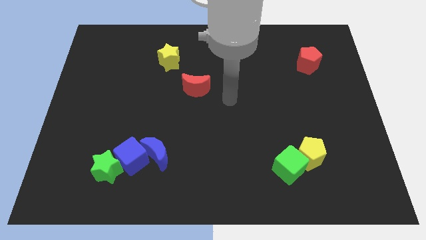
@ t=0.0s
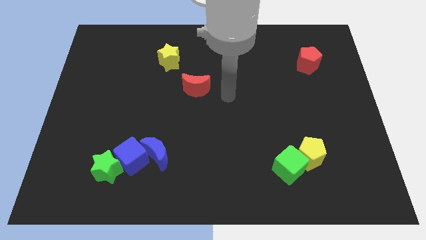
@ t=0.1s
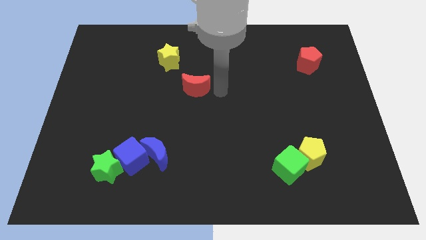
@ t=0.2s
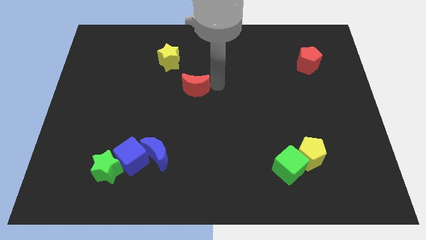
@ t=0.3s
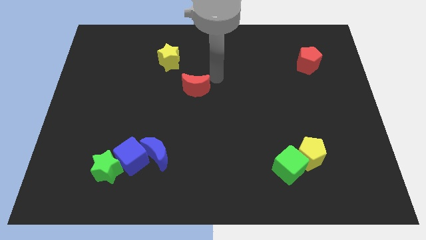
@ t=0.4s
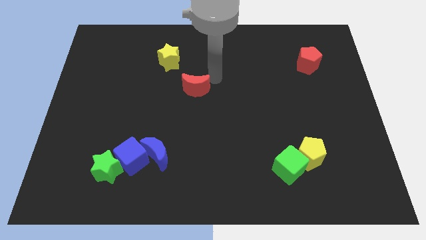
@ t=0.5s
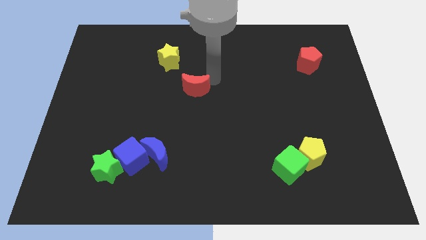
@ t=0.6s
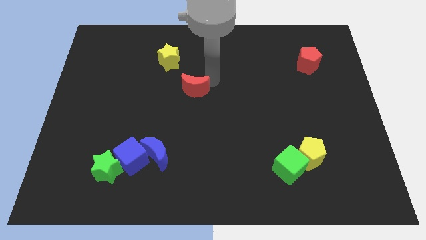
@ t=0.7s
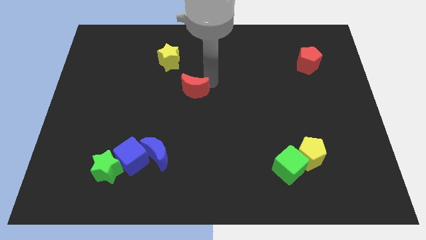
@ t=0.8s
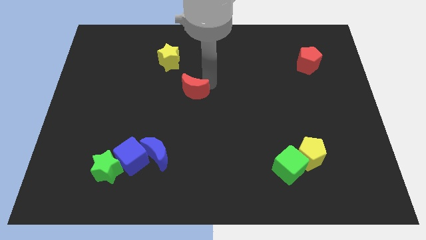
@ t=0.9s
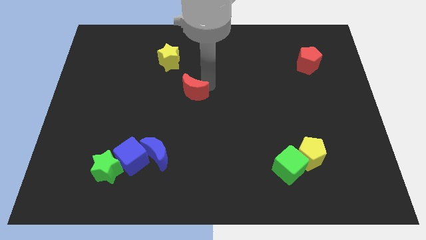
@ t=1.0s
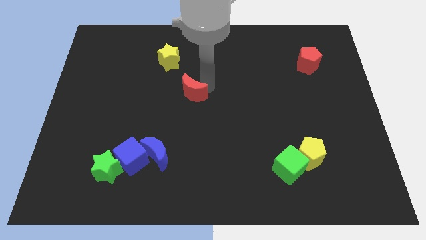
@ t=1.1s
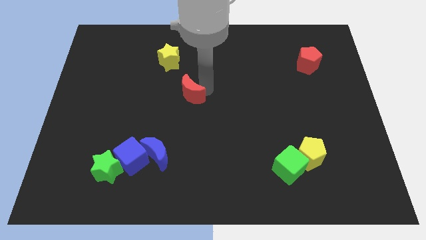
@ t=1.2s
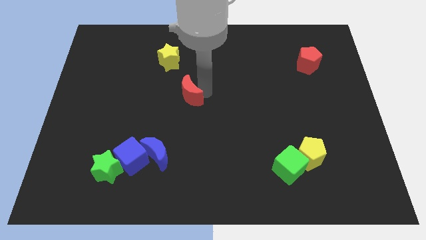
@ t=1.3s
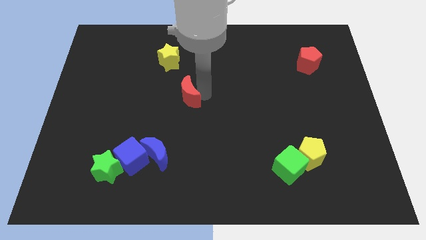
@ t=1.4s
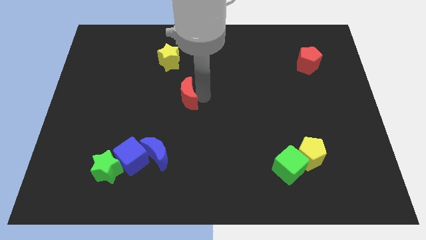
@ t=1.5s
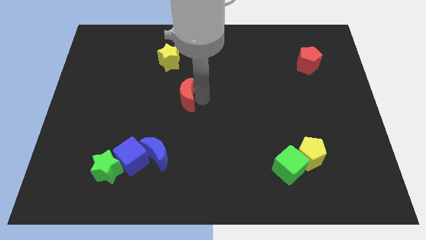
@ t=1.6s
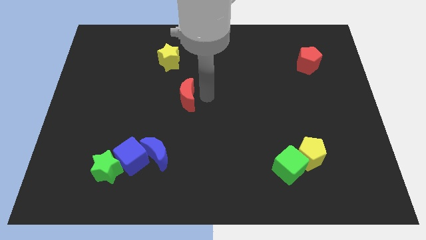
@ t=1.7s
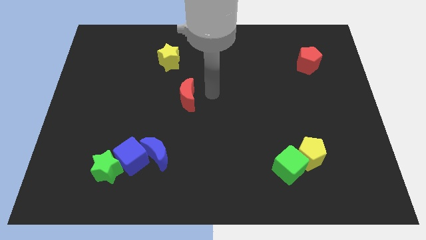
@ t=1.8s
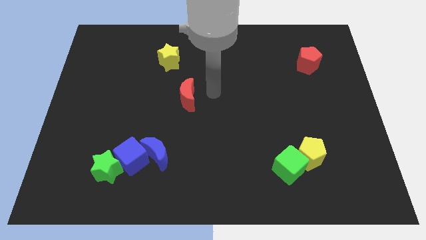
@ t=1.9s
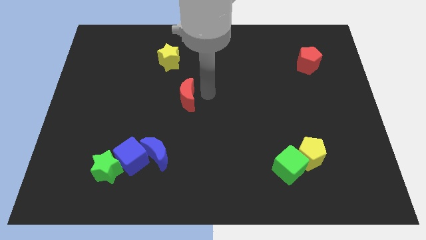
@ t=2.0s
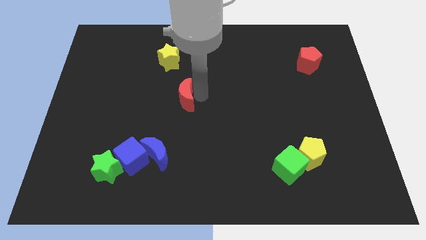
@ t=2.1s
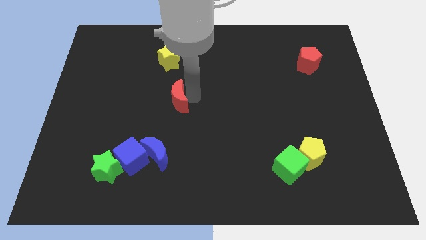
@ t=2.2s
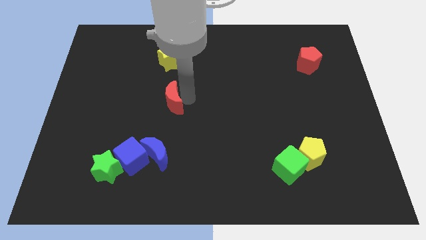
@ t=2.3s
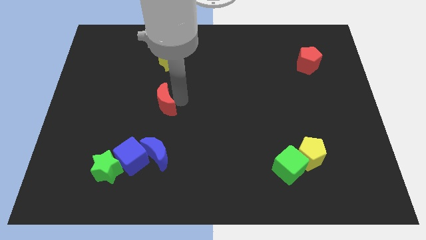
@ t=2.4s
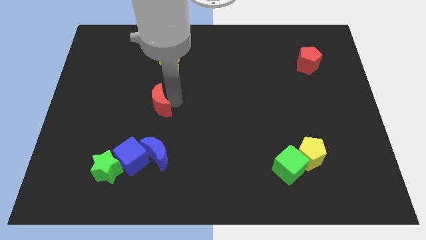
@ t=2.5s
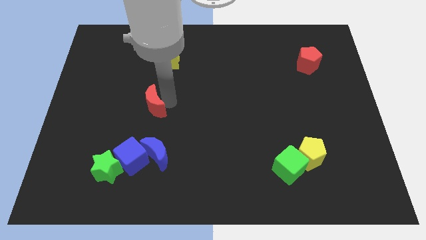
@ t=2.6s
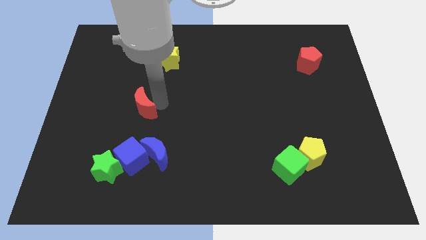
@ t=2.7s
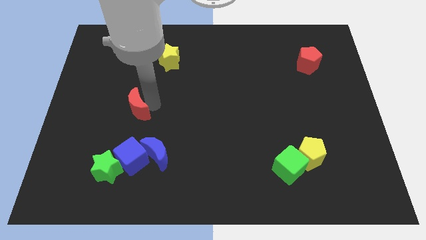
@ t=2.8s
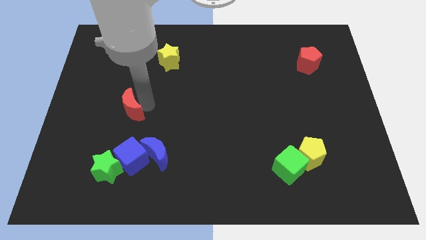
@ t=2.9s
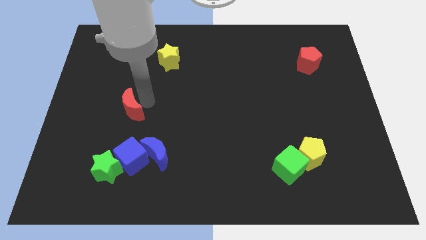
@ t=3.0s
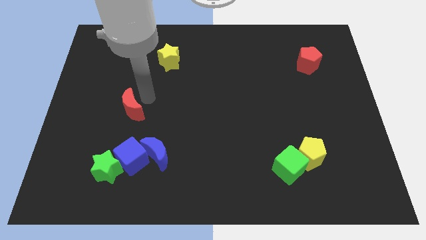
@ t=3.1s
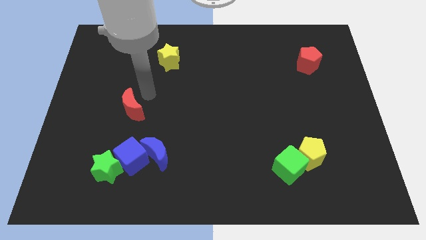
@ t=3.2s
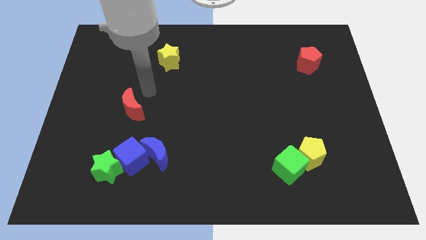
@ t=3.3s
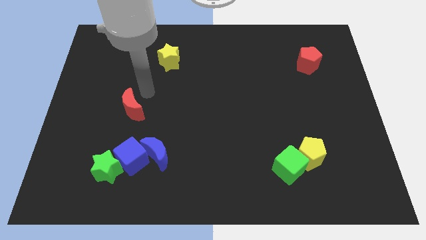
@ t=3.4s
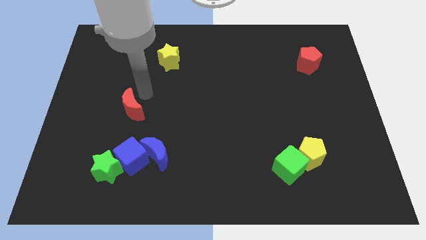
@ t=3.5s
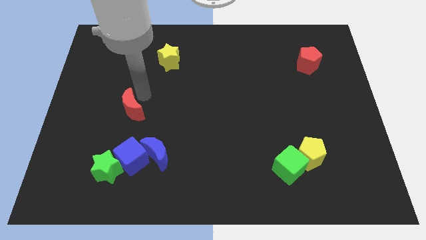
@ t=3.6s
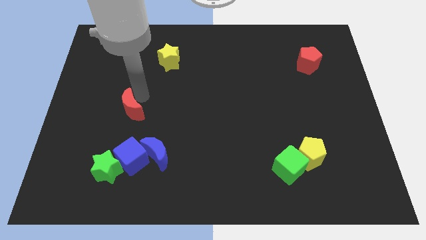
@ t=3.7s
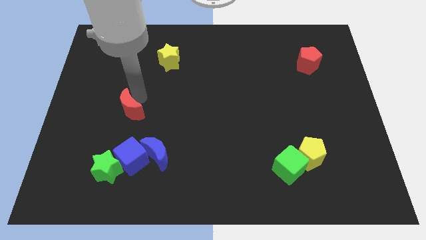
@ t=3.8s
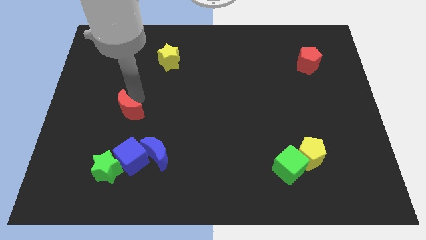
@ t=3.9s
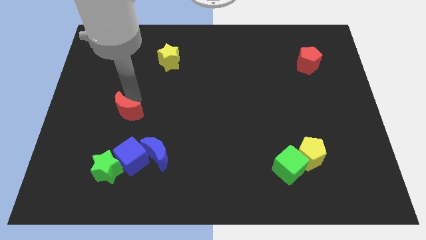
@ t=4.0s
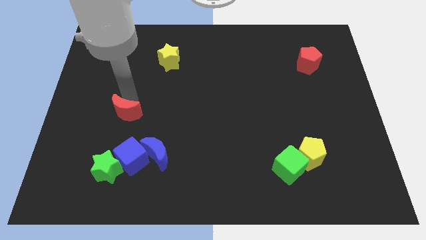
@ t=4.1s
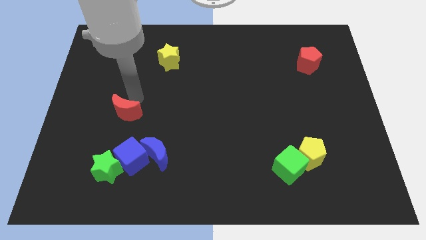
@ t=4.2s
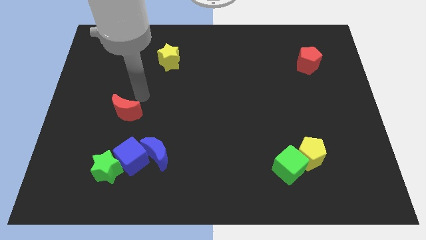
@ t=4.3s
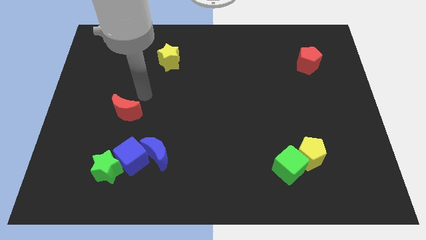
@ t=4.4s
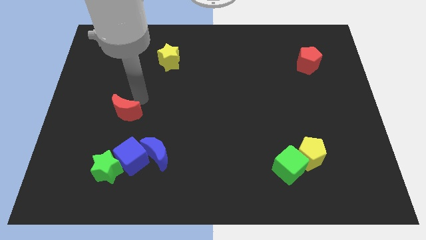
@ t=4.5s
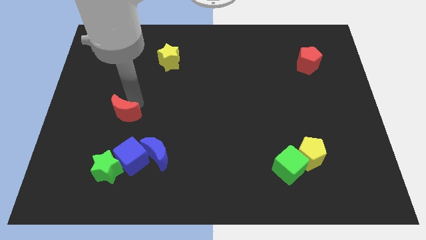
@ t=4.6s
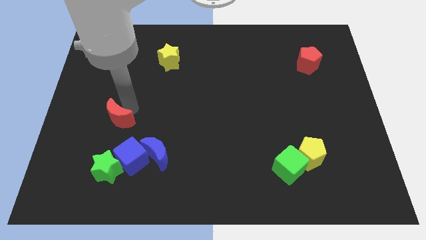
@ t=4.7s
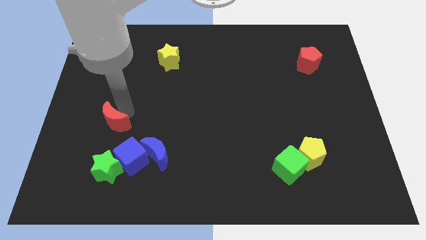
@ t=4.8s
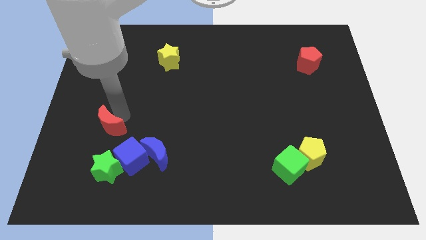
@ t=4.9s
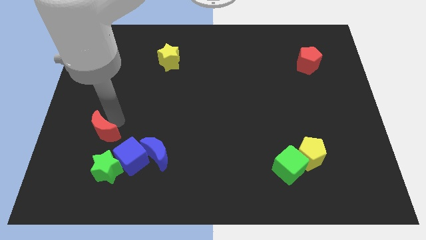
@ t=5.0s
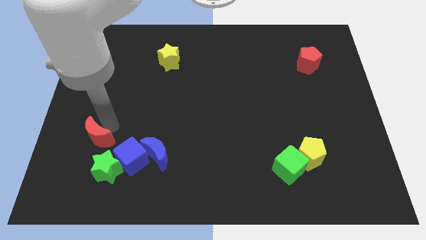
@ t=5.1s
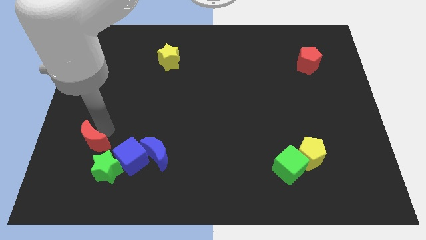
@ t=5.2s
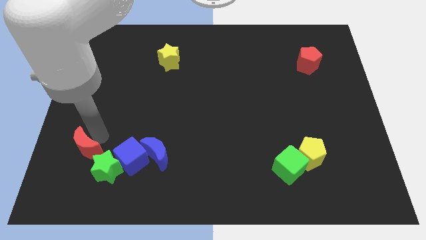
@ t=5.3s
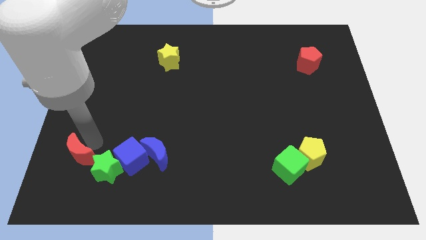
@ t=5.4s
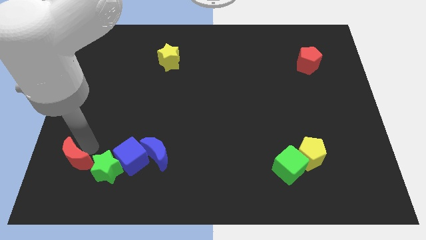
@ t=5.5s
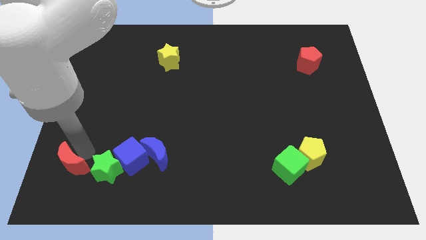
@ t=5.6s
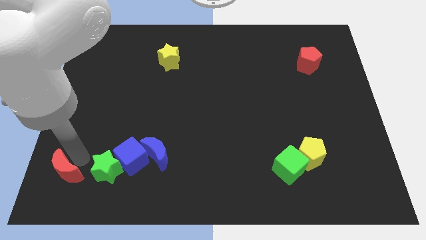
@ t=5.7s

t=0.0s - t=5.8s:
push the red moon to the bottom left

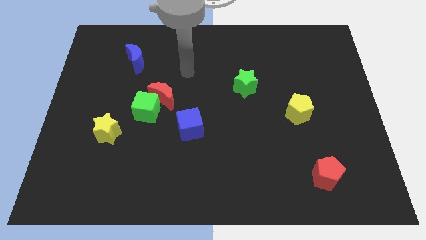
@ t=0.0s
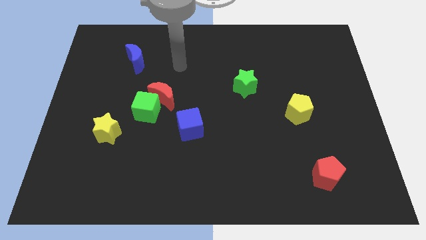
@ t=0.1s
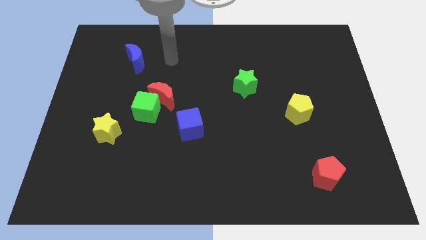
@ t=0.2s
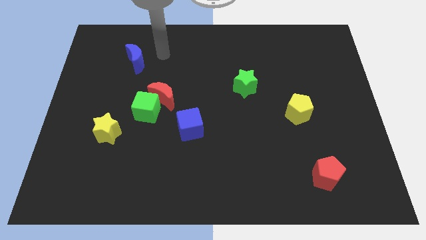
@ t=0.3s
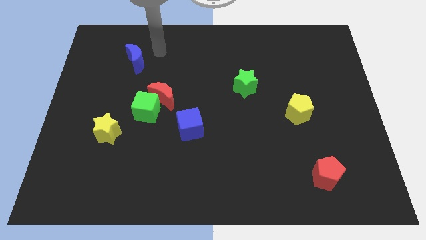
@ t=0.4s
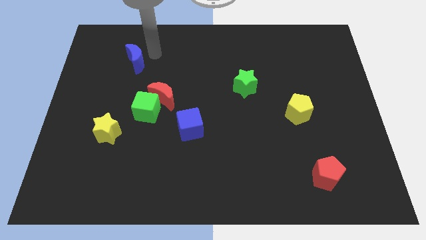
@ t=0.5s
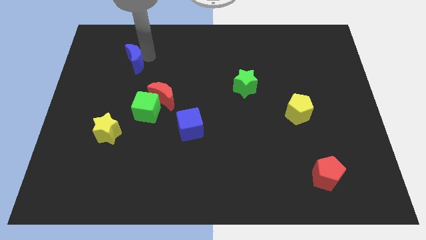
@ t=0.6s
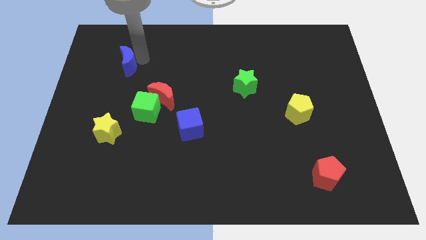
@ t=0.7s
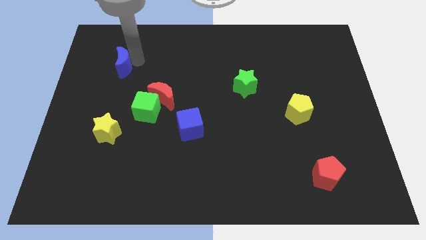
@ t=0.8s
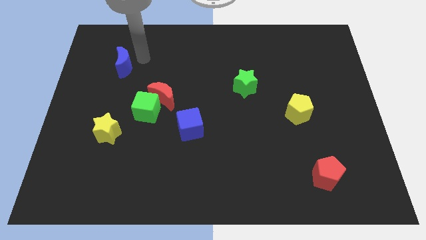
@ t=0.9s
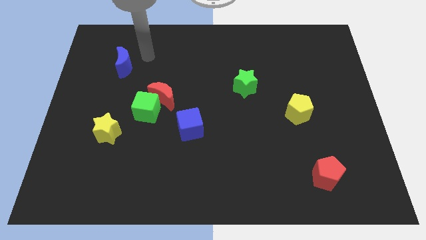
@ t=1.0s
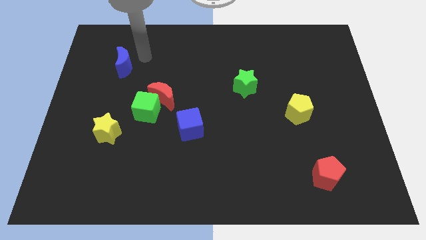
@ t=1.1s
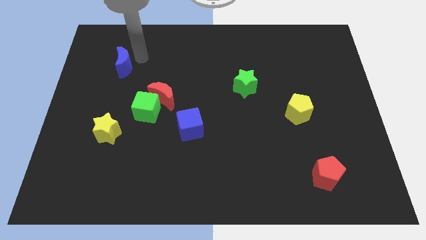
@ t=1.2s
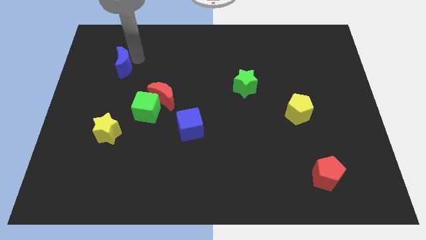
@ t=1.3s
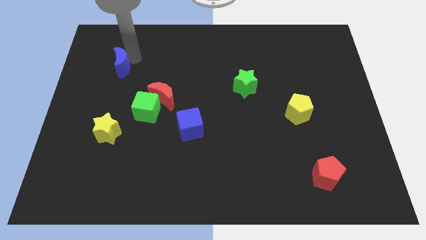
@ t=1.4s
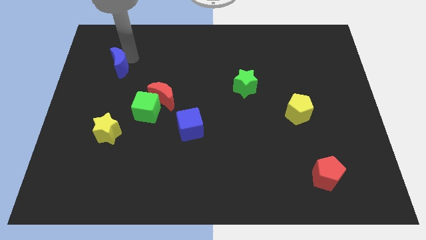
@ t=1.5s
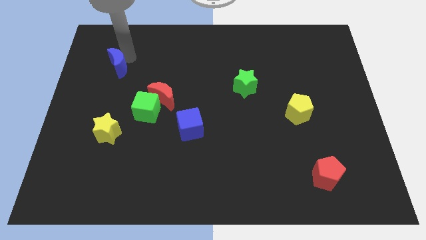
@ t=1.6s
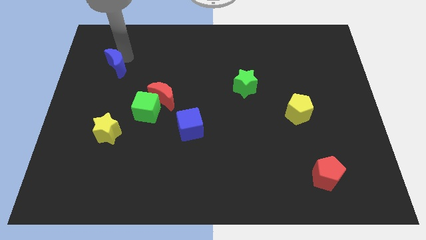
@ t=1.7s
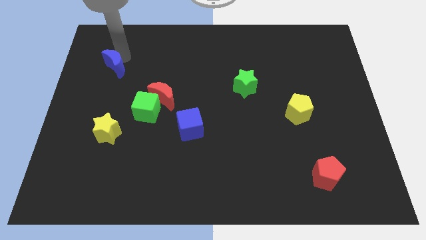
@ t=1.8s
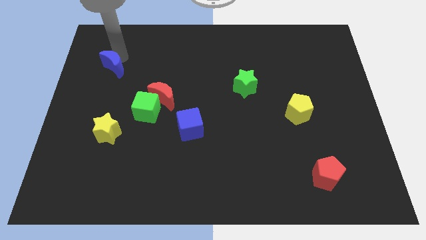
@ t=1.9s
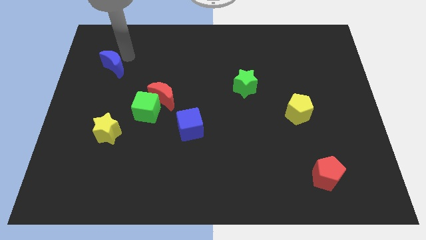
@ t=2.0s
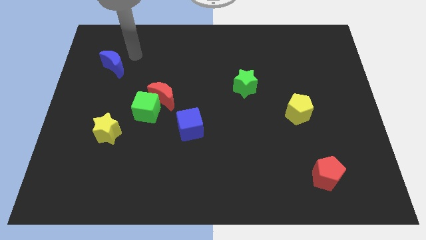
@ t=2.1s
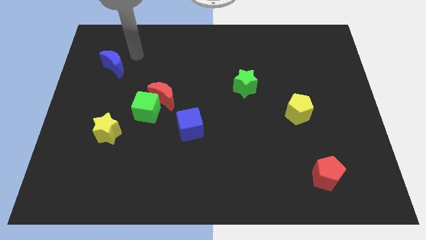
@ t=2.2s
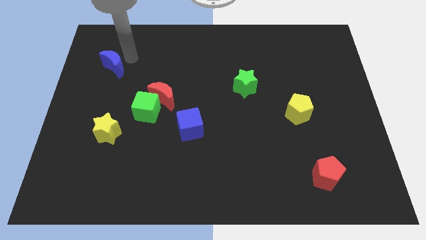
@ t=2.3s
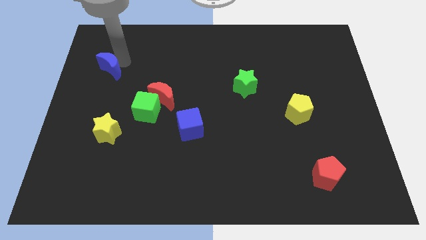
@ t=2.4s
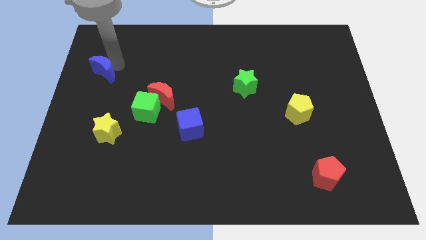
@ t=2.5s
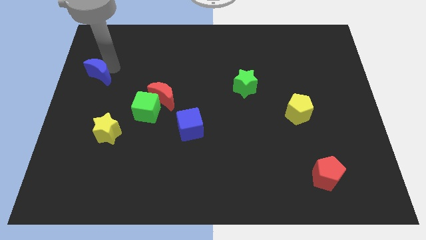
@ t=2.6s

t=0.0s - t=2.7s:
push the blue moon to the left side of the board
